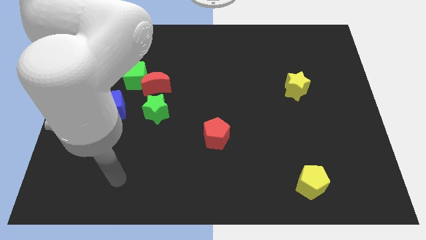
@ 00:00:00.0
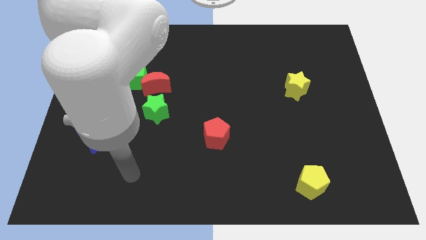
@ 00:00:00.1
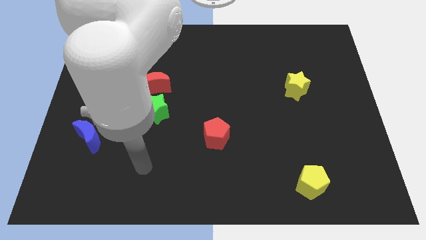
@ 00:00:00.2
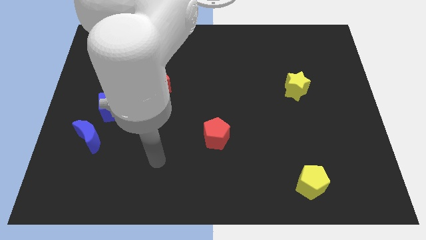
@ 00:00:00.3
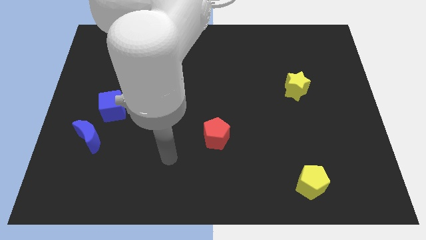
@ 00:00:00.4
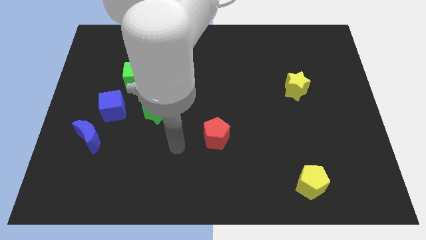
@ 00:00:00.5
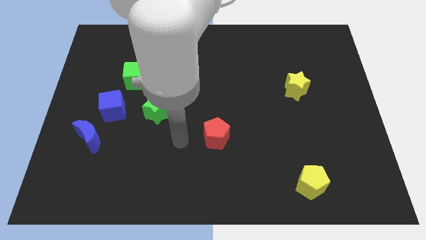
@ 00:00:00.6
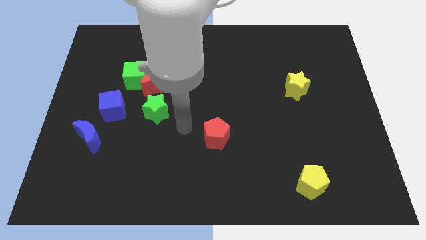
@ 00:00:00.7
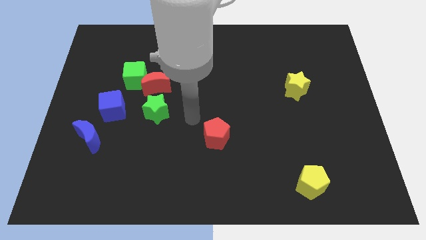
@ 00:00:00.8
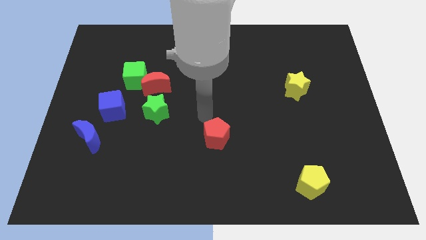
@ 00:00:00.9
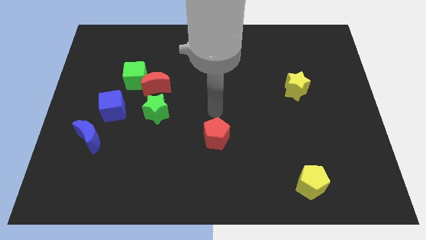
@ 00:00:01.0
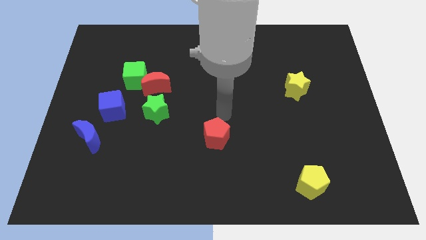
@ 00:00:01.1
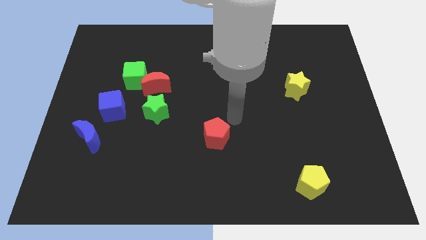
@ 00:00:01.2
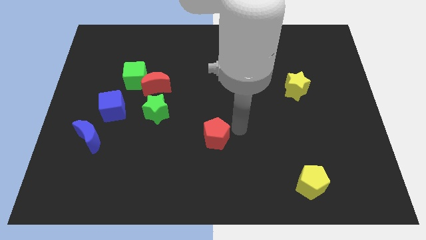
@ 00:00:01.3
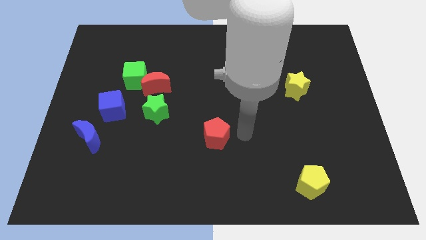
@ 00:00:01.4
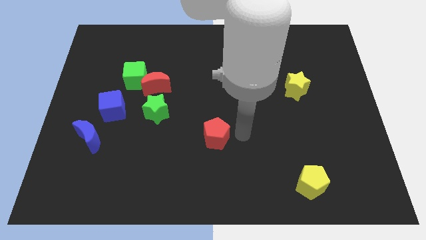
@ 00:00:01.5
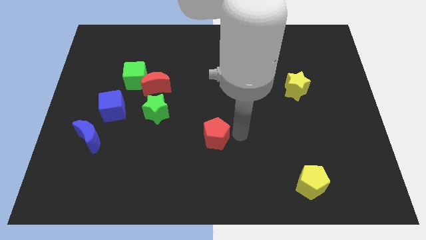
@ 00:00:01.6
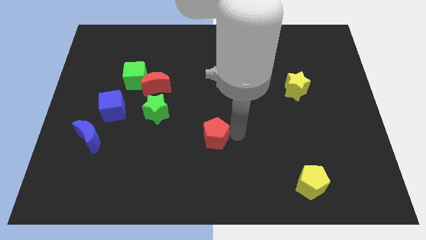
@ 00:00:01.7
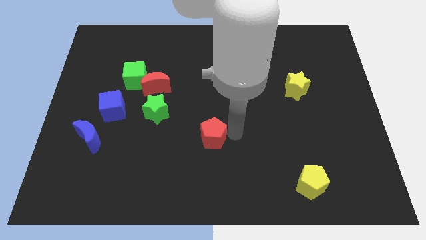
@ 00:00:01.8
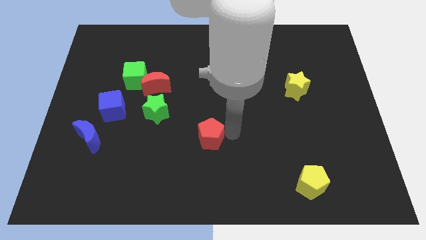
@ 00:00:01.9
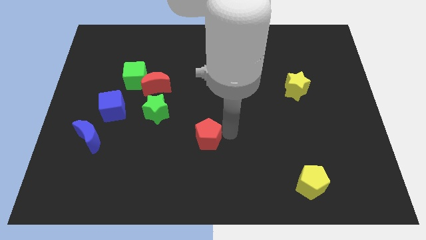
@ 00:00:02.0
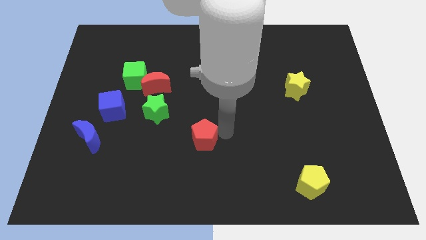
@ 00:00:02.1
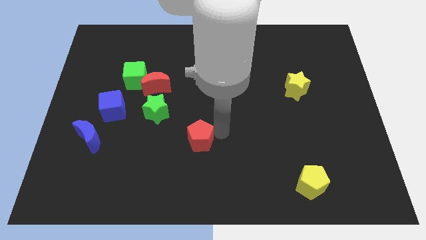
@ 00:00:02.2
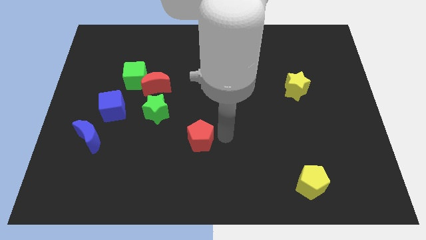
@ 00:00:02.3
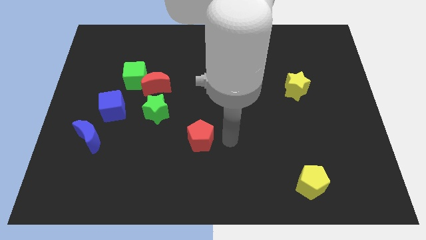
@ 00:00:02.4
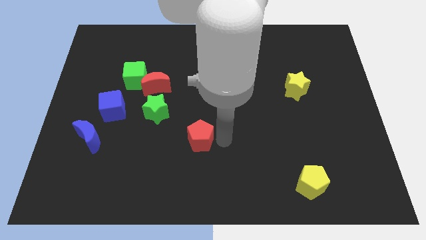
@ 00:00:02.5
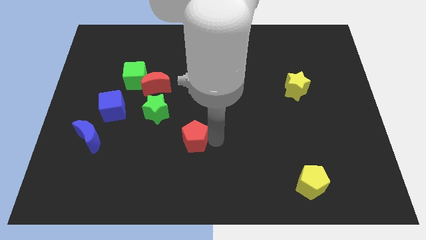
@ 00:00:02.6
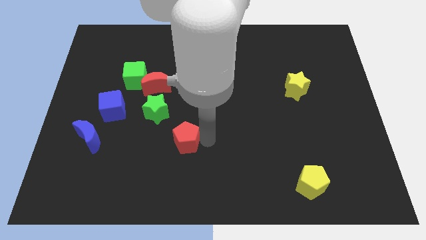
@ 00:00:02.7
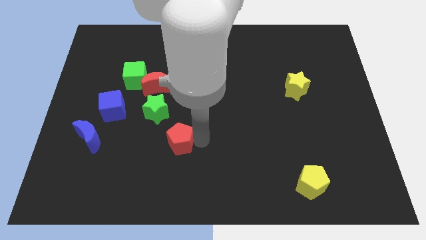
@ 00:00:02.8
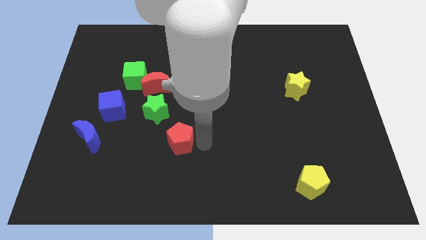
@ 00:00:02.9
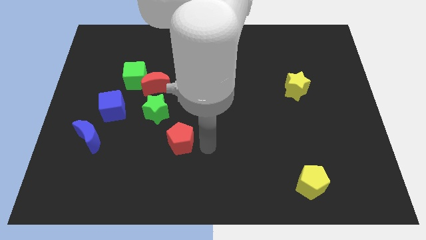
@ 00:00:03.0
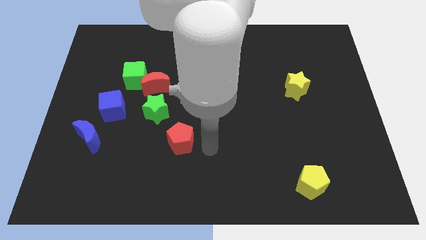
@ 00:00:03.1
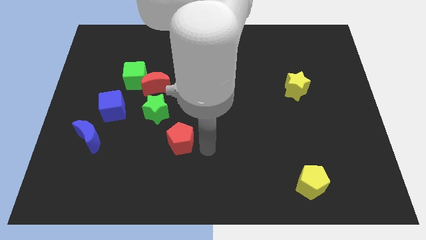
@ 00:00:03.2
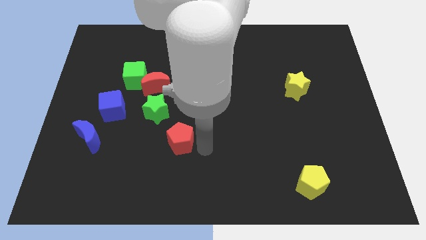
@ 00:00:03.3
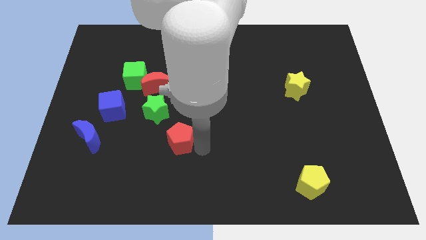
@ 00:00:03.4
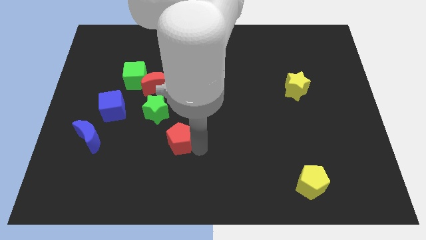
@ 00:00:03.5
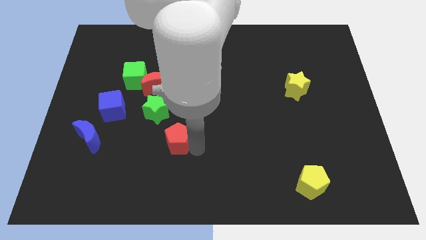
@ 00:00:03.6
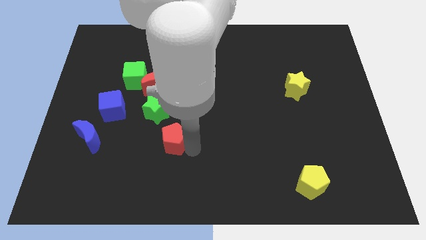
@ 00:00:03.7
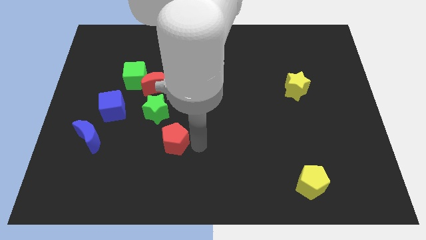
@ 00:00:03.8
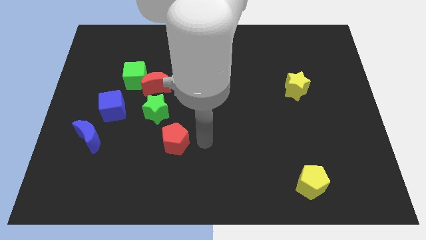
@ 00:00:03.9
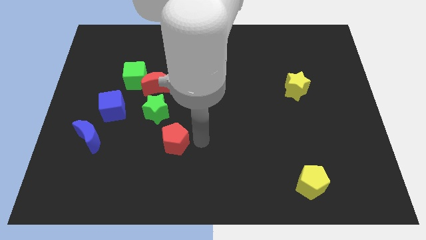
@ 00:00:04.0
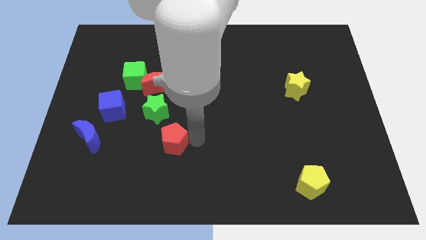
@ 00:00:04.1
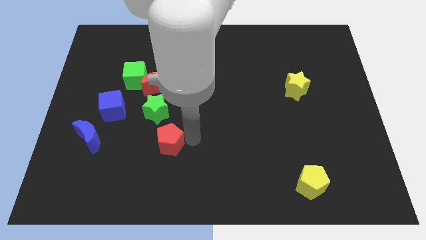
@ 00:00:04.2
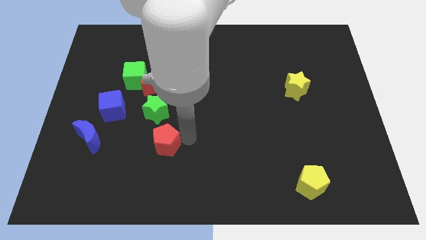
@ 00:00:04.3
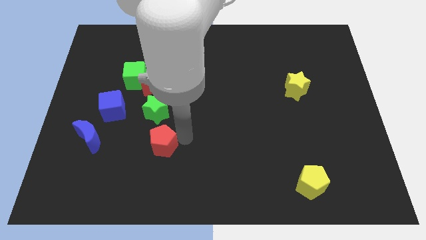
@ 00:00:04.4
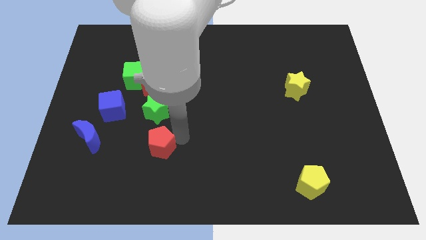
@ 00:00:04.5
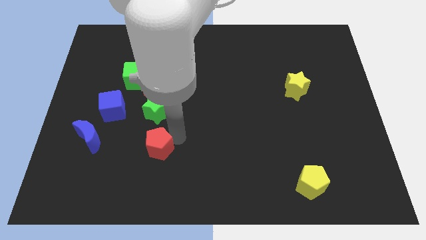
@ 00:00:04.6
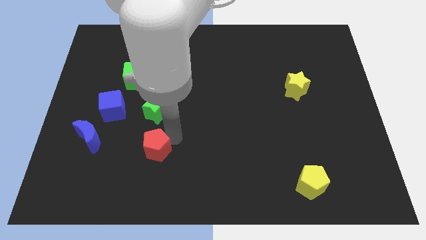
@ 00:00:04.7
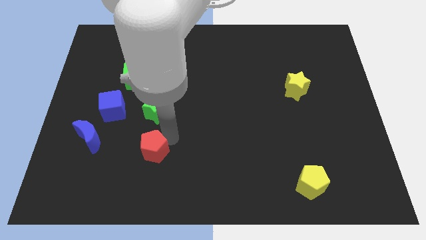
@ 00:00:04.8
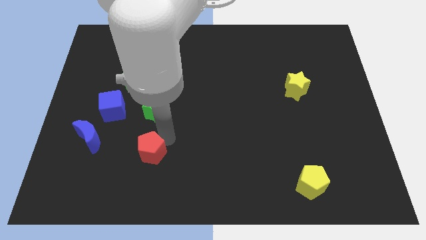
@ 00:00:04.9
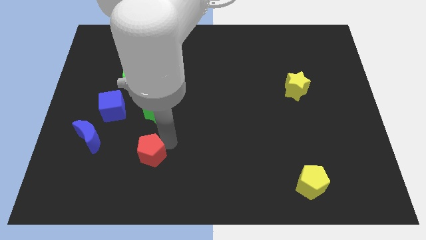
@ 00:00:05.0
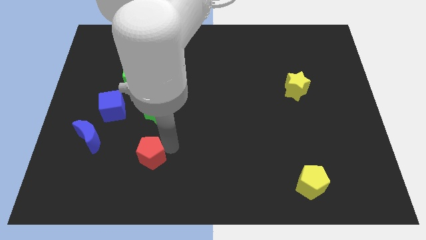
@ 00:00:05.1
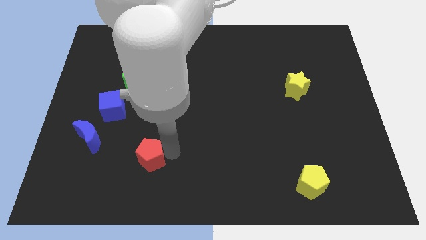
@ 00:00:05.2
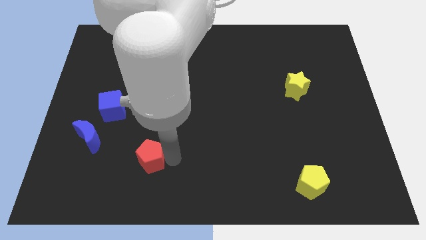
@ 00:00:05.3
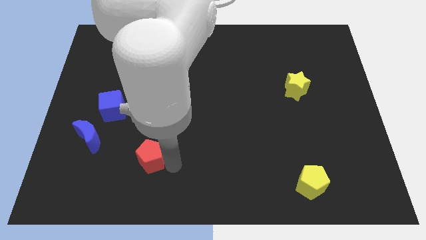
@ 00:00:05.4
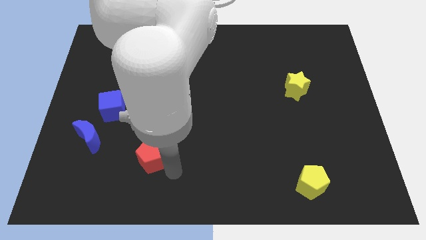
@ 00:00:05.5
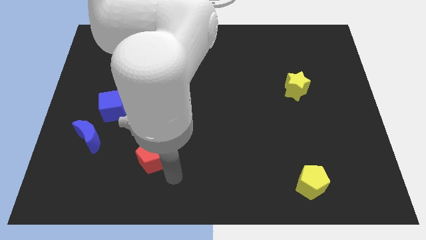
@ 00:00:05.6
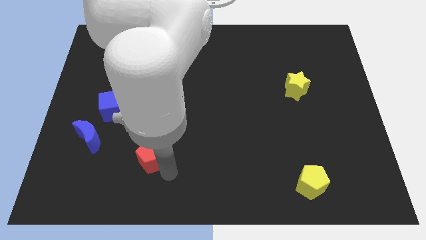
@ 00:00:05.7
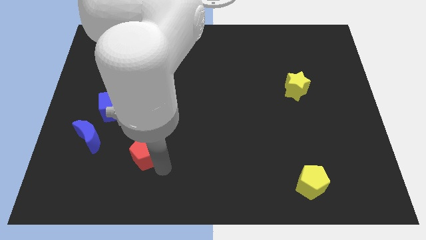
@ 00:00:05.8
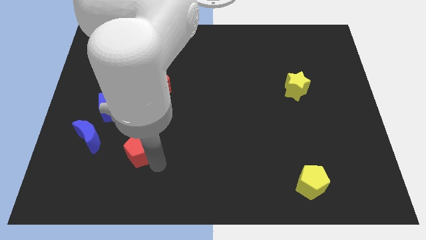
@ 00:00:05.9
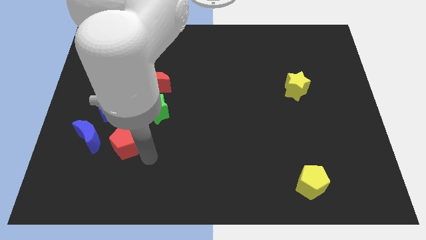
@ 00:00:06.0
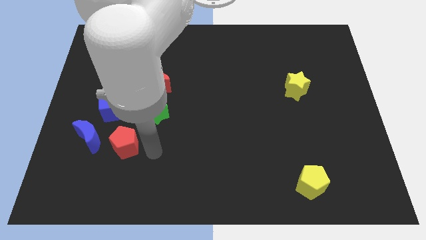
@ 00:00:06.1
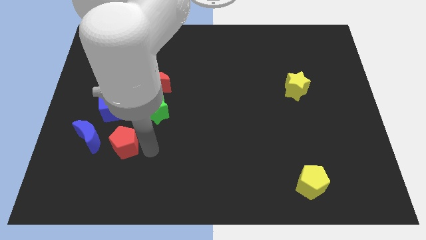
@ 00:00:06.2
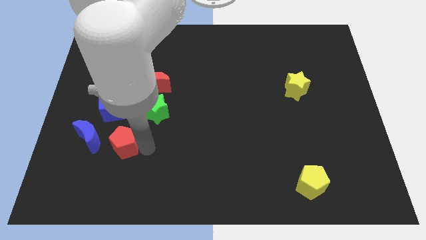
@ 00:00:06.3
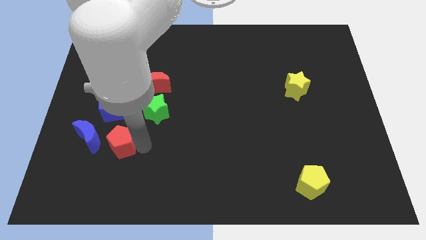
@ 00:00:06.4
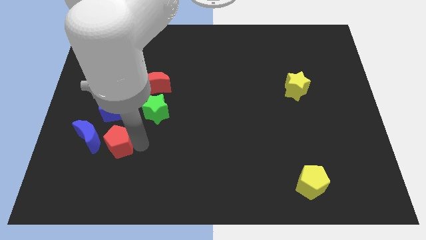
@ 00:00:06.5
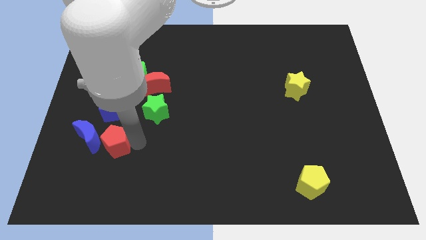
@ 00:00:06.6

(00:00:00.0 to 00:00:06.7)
put the red pentagon close to the blue moon

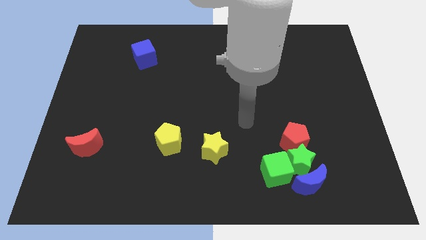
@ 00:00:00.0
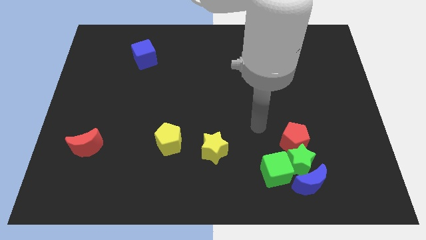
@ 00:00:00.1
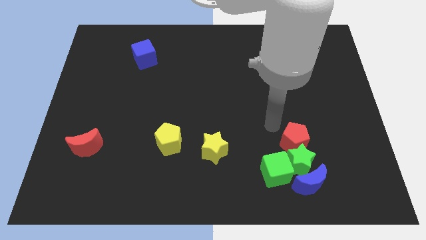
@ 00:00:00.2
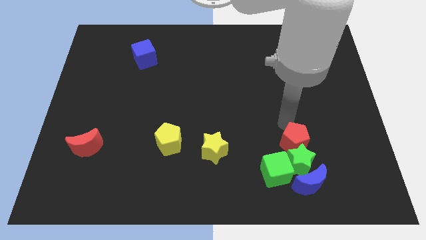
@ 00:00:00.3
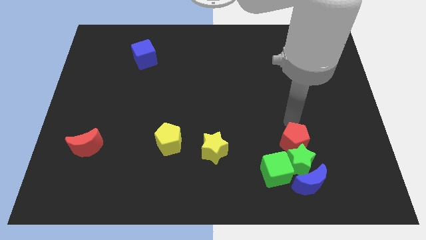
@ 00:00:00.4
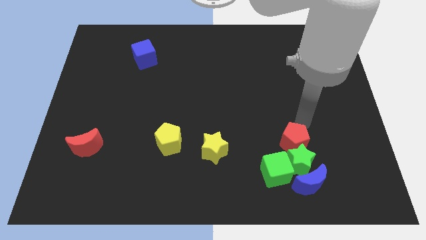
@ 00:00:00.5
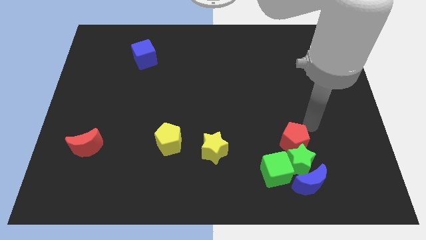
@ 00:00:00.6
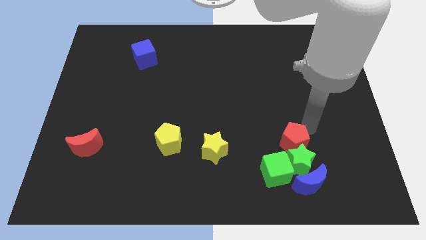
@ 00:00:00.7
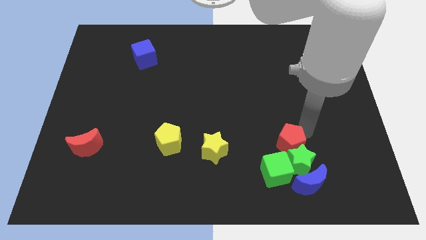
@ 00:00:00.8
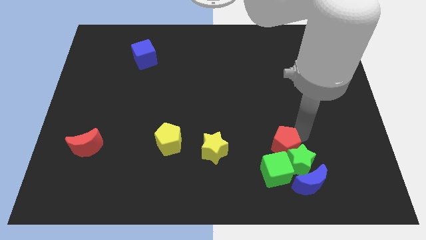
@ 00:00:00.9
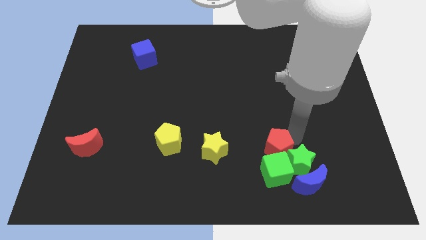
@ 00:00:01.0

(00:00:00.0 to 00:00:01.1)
move the red pentagon towards the green cube
